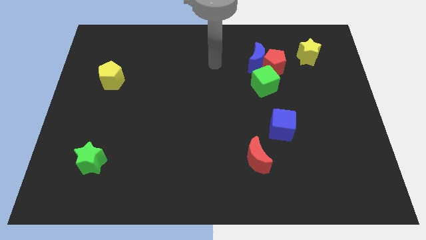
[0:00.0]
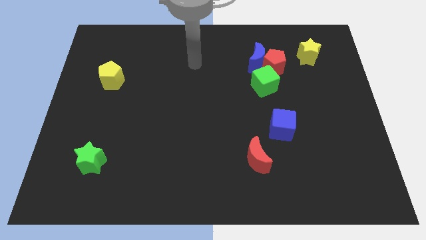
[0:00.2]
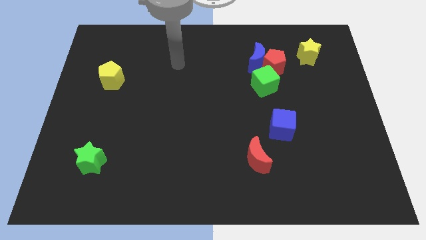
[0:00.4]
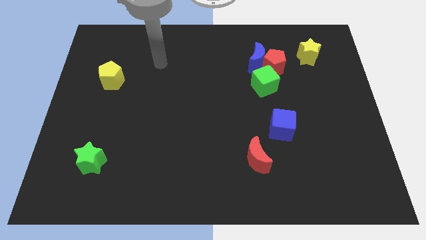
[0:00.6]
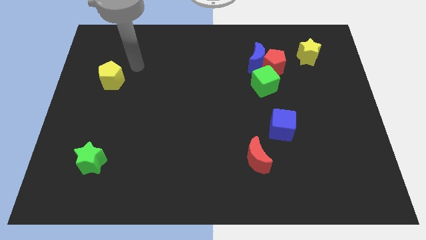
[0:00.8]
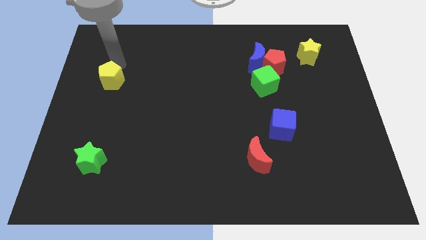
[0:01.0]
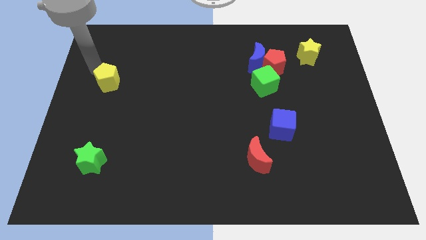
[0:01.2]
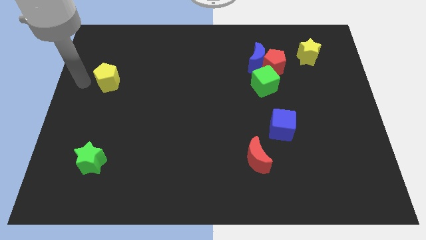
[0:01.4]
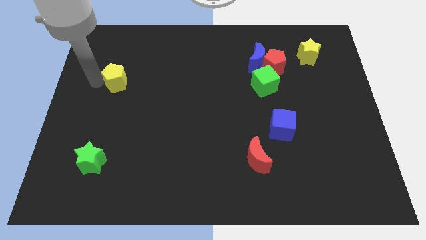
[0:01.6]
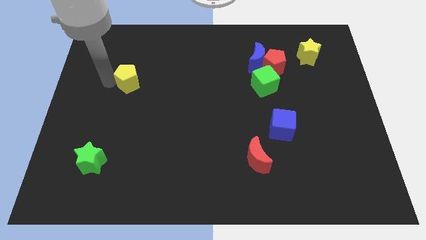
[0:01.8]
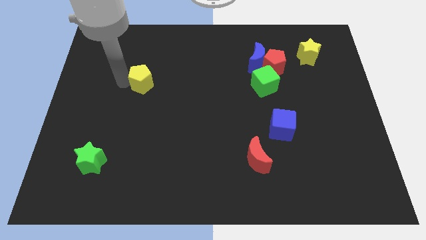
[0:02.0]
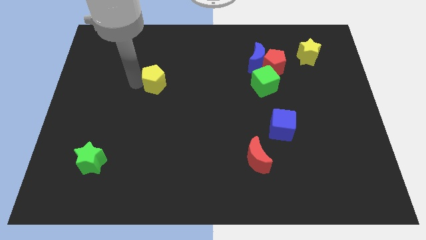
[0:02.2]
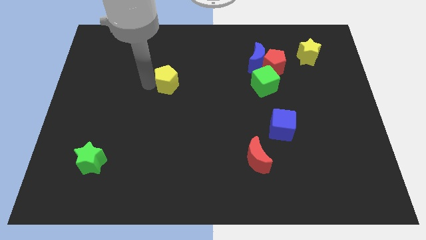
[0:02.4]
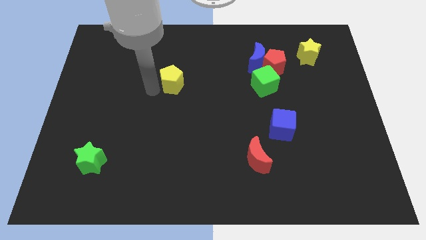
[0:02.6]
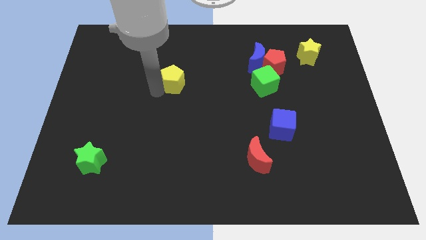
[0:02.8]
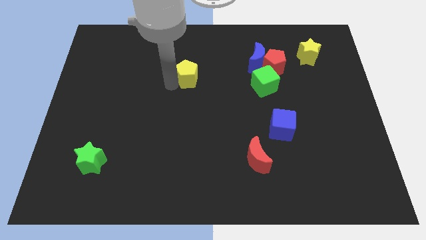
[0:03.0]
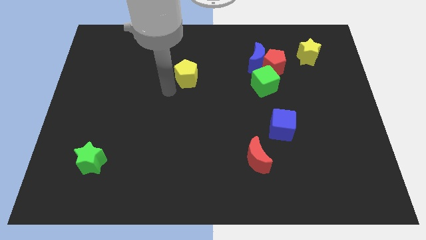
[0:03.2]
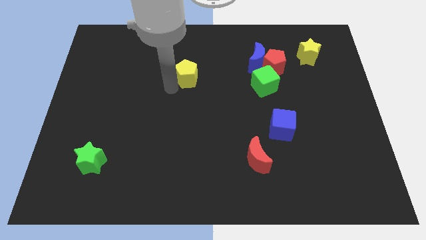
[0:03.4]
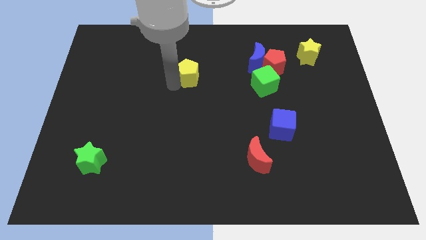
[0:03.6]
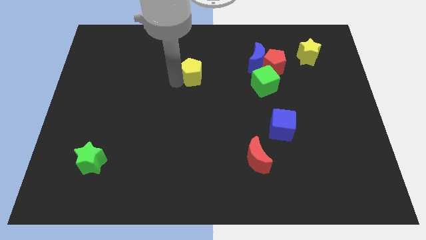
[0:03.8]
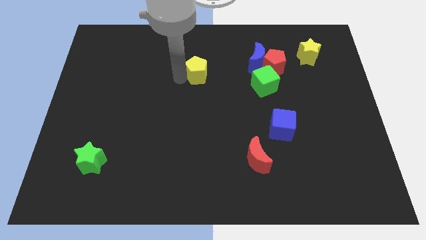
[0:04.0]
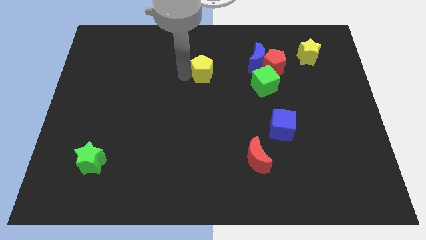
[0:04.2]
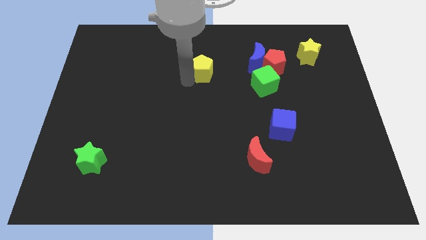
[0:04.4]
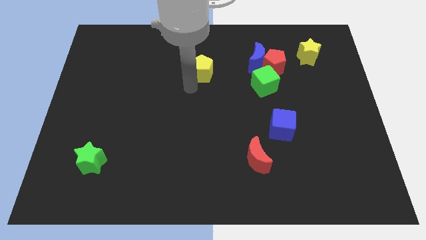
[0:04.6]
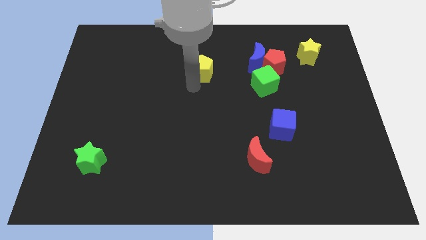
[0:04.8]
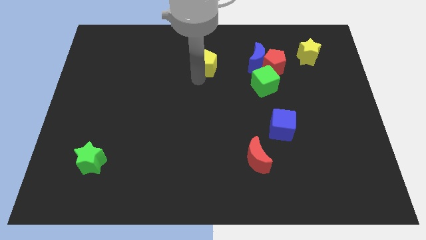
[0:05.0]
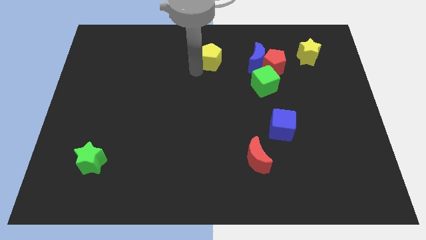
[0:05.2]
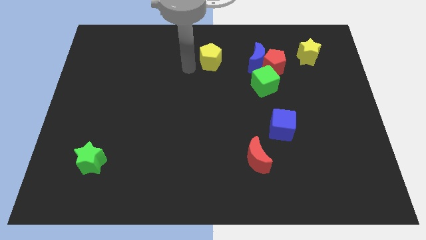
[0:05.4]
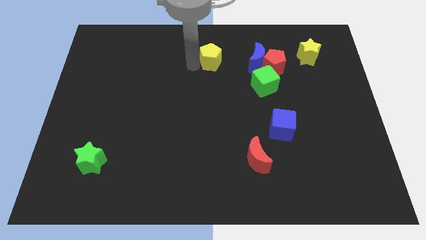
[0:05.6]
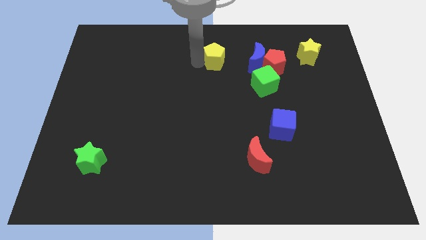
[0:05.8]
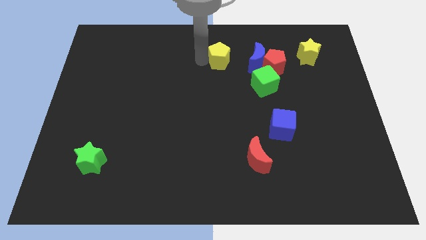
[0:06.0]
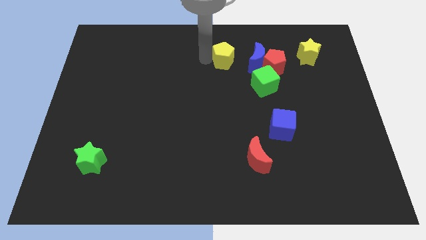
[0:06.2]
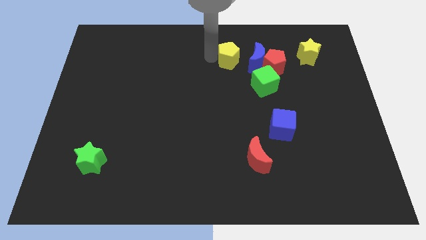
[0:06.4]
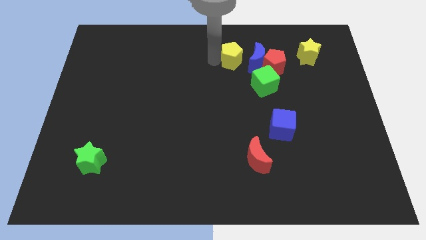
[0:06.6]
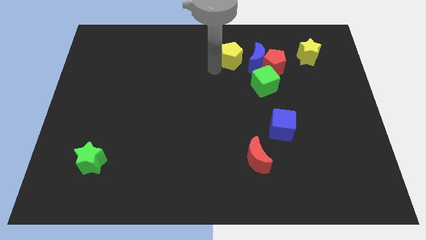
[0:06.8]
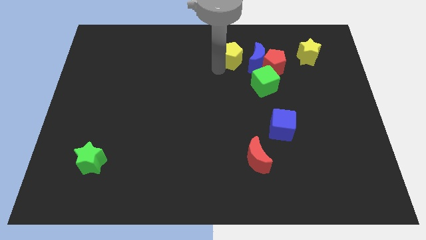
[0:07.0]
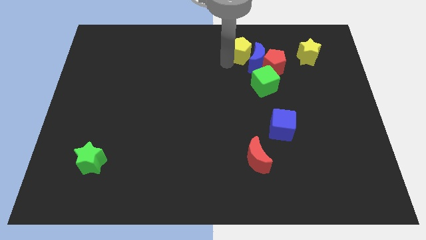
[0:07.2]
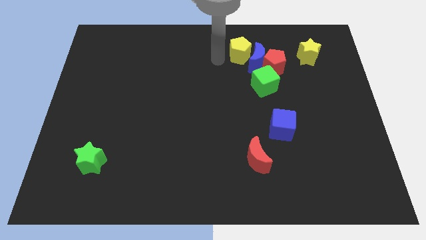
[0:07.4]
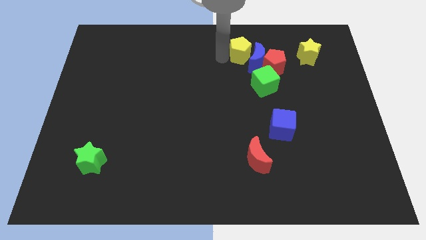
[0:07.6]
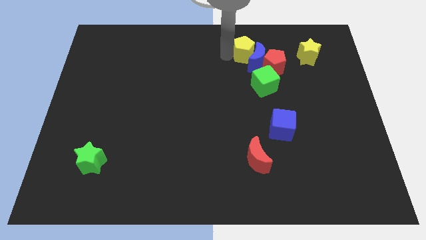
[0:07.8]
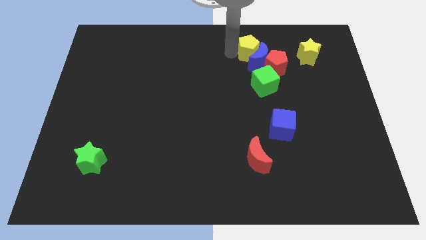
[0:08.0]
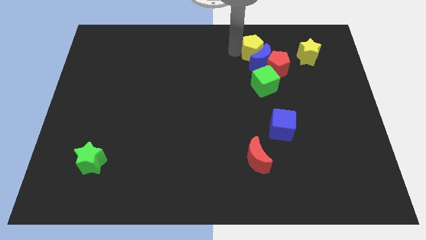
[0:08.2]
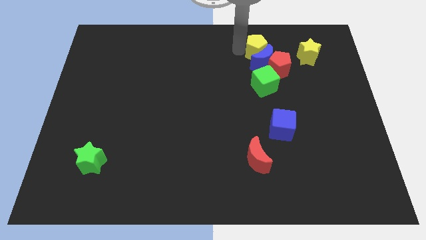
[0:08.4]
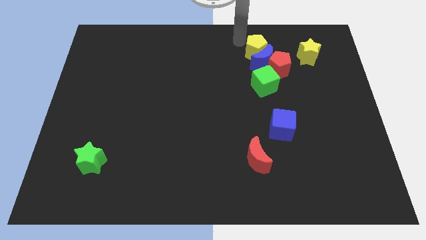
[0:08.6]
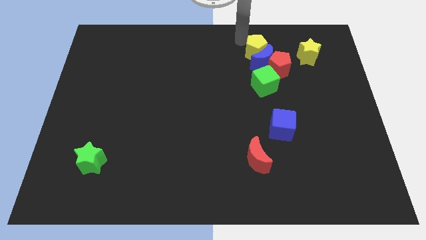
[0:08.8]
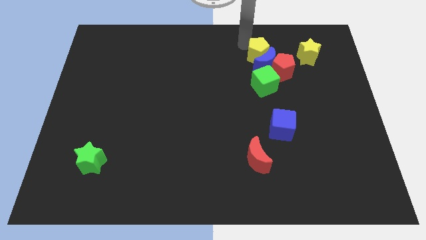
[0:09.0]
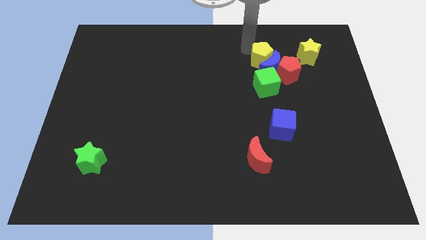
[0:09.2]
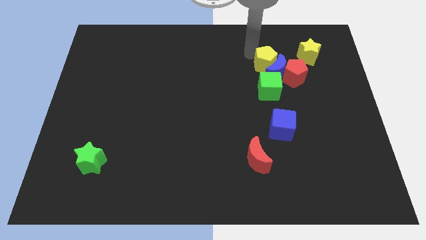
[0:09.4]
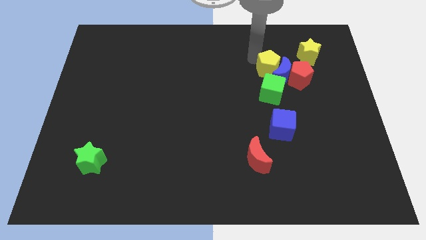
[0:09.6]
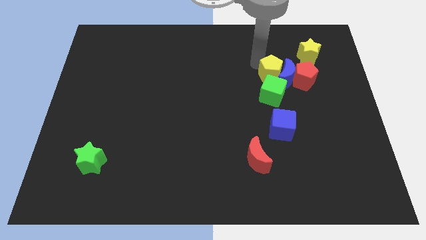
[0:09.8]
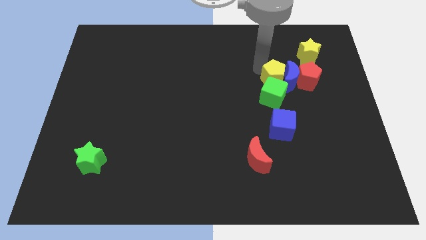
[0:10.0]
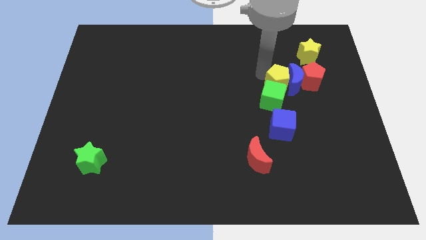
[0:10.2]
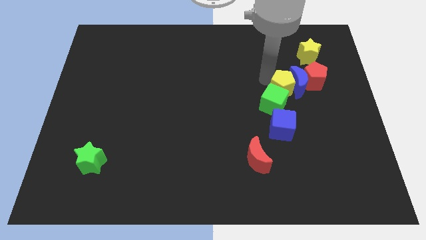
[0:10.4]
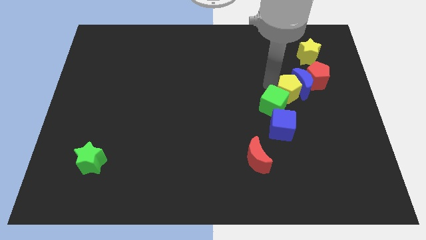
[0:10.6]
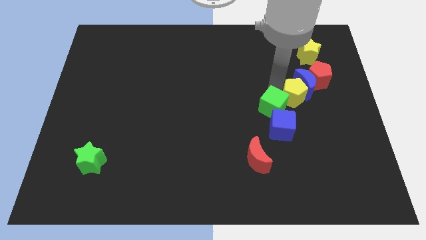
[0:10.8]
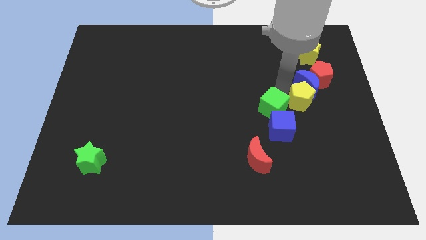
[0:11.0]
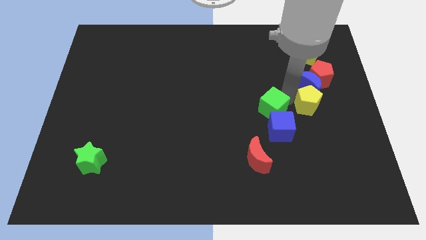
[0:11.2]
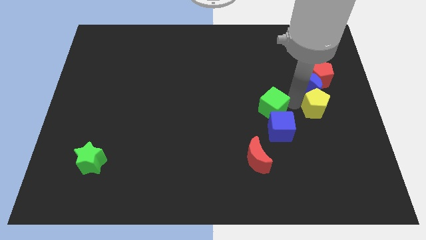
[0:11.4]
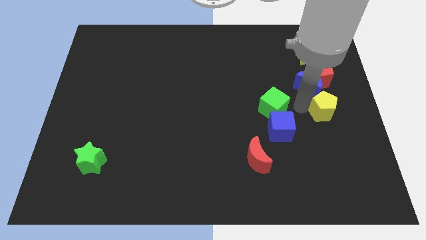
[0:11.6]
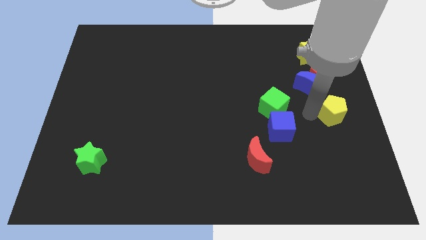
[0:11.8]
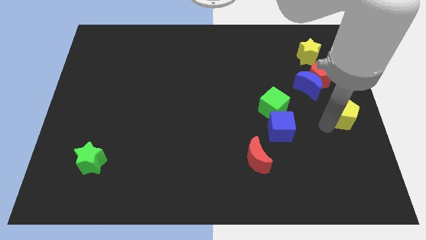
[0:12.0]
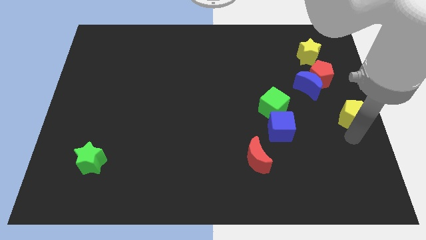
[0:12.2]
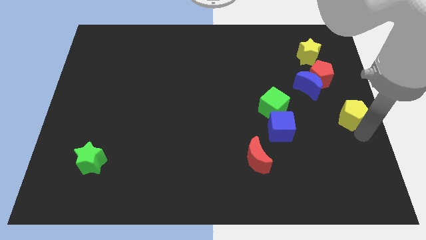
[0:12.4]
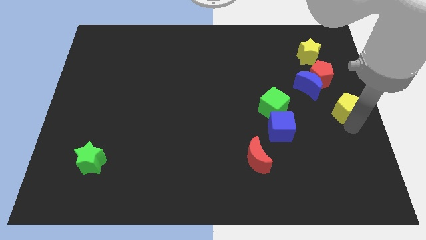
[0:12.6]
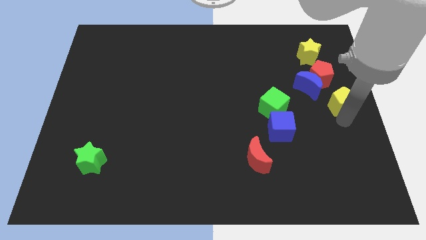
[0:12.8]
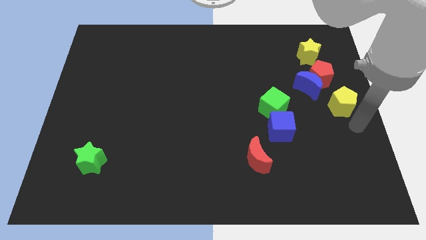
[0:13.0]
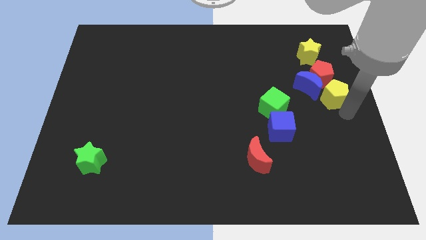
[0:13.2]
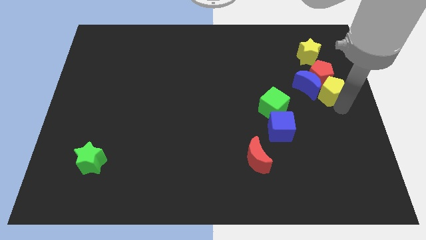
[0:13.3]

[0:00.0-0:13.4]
put the yellow pentagon close to the red pentagon
